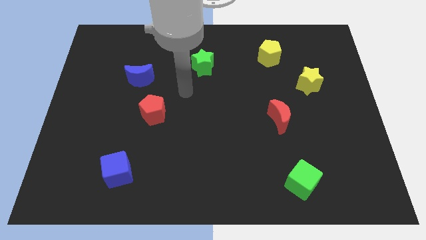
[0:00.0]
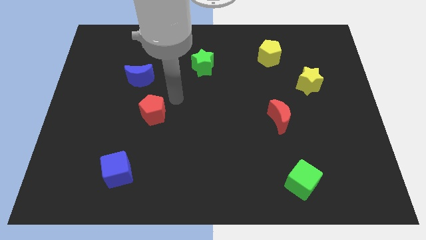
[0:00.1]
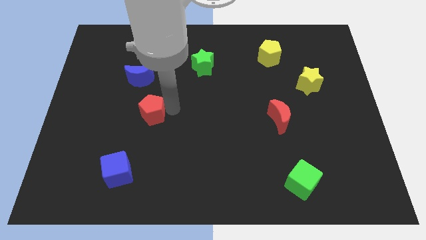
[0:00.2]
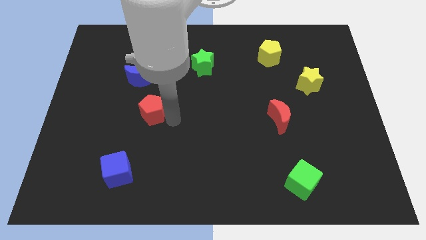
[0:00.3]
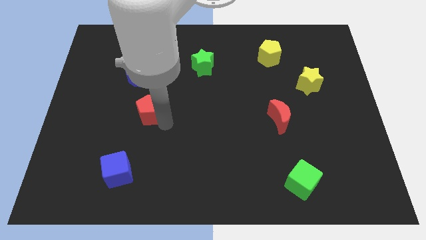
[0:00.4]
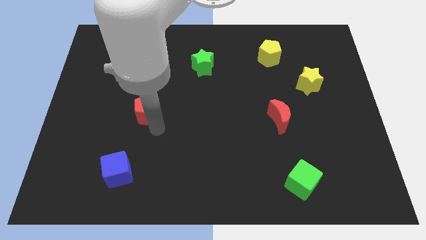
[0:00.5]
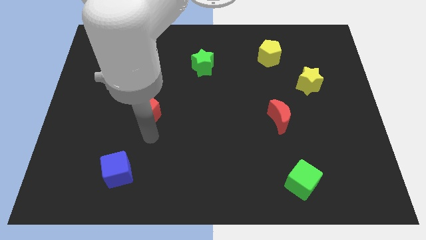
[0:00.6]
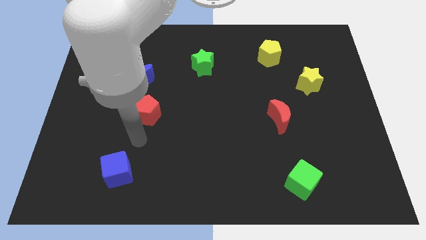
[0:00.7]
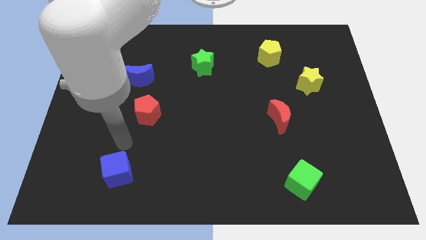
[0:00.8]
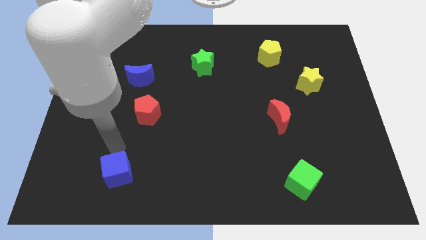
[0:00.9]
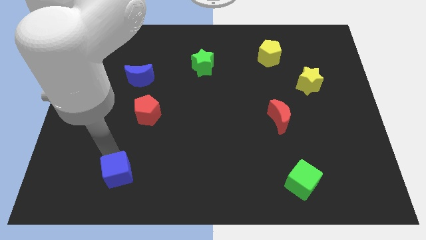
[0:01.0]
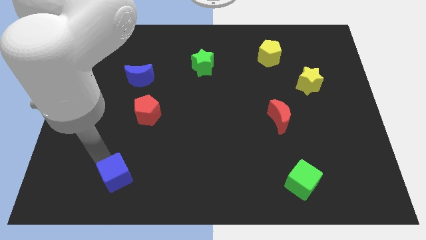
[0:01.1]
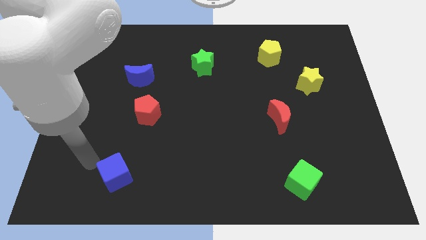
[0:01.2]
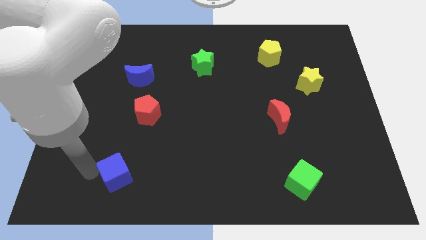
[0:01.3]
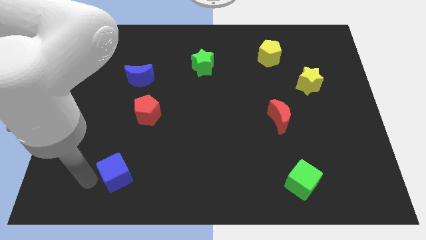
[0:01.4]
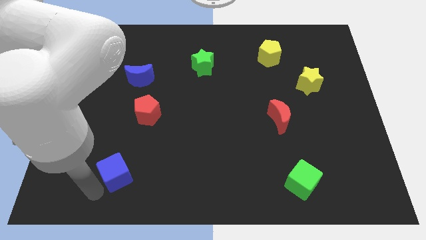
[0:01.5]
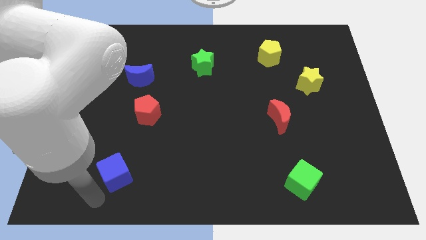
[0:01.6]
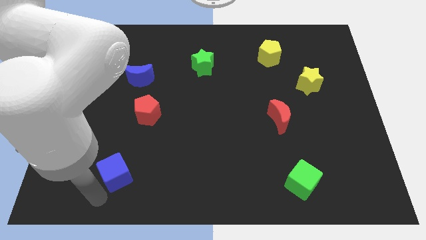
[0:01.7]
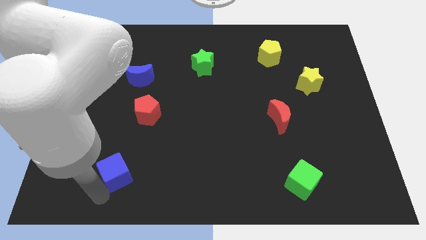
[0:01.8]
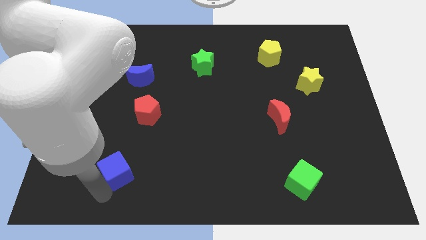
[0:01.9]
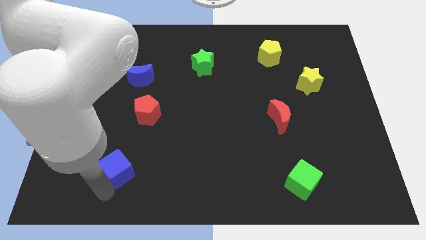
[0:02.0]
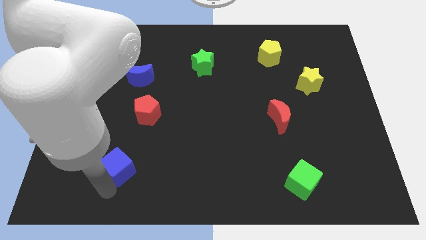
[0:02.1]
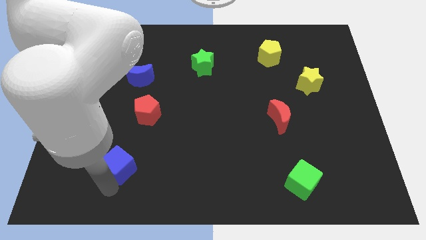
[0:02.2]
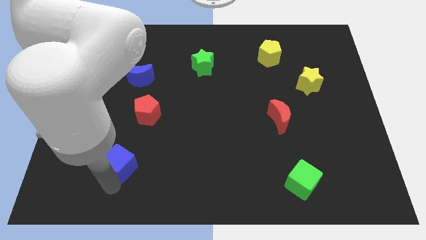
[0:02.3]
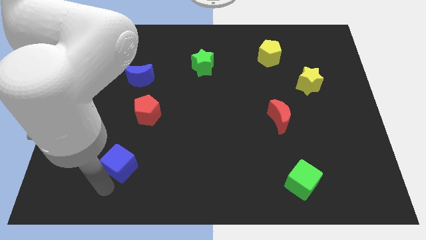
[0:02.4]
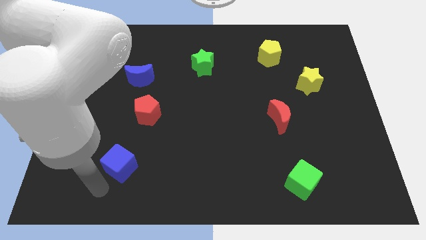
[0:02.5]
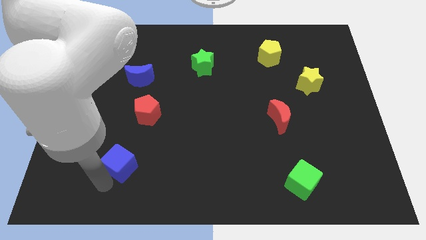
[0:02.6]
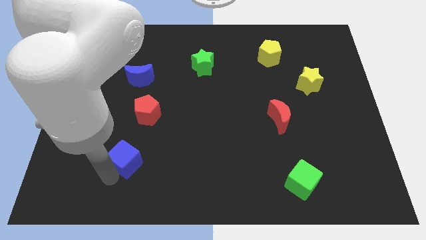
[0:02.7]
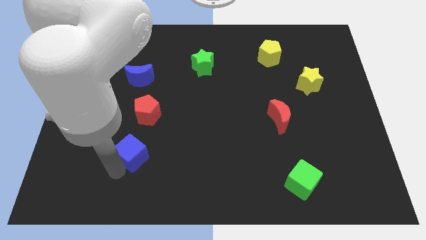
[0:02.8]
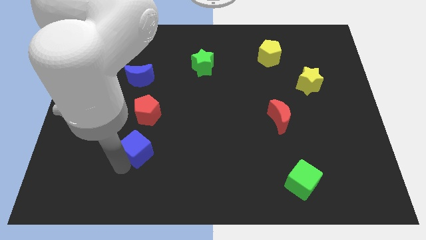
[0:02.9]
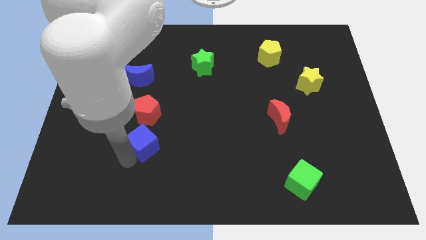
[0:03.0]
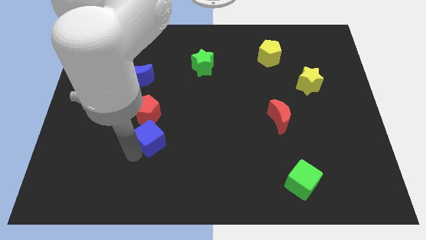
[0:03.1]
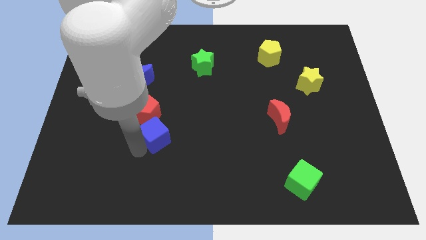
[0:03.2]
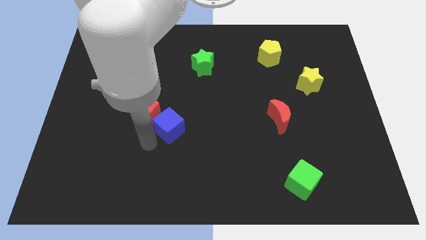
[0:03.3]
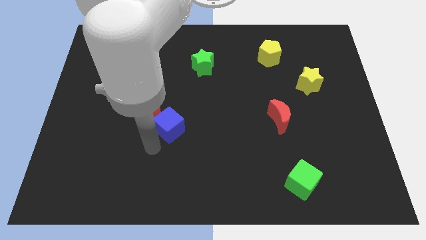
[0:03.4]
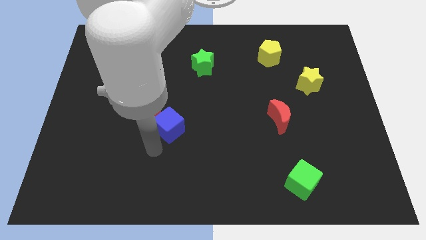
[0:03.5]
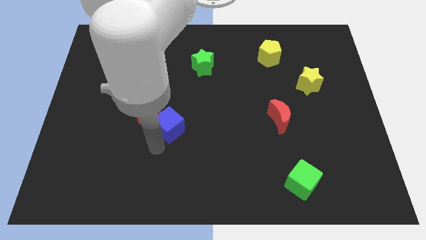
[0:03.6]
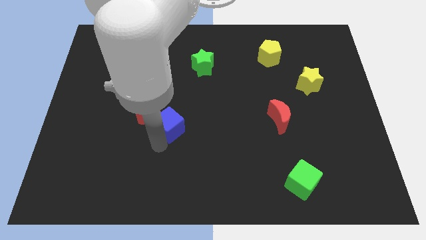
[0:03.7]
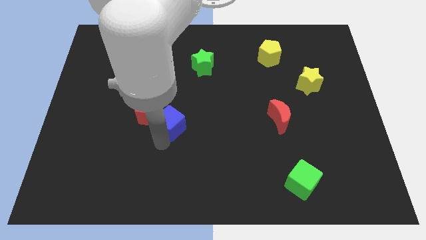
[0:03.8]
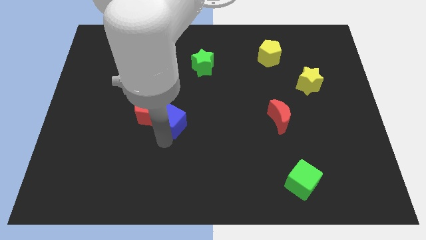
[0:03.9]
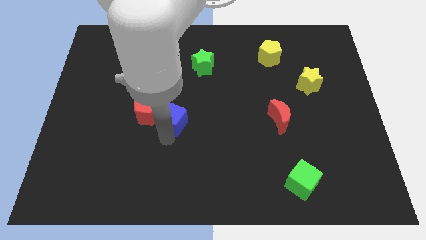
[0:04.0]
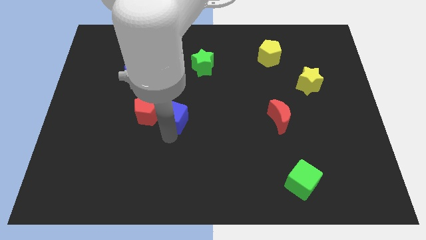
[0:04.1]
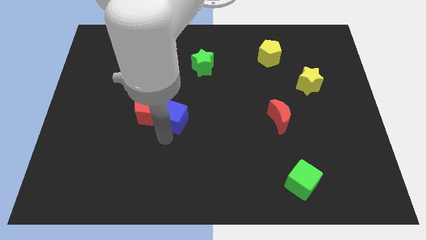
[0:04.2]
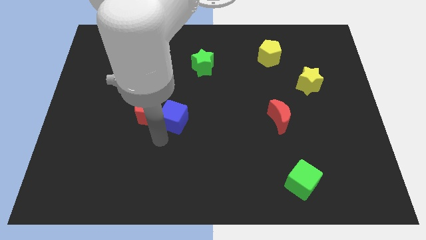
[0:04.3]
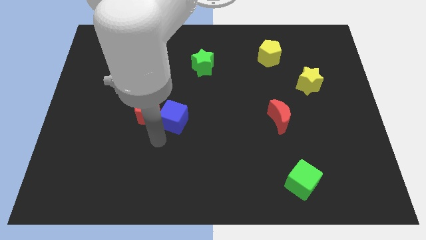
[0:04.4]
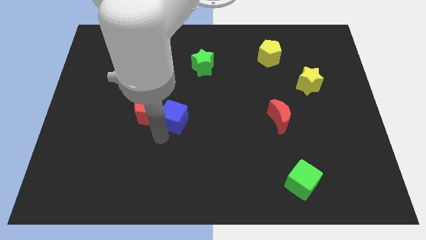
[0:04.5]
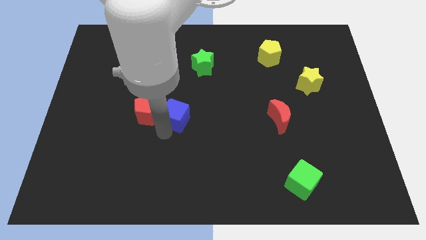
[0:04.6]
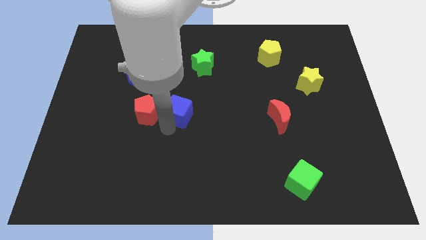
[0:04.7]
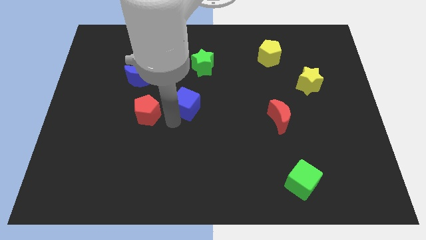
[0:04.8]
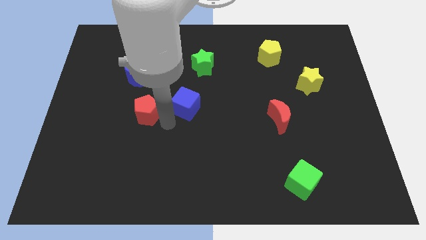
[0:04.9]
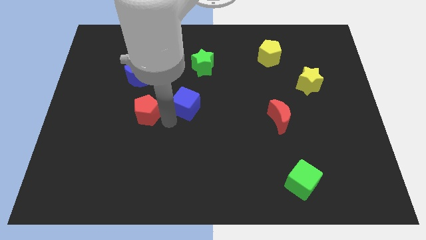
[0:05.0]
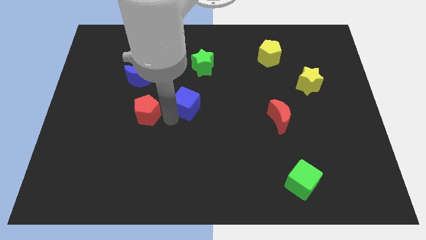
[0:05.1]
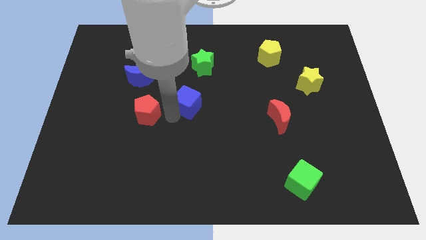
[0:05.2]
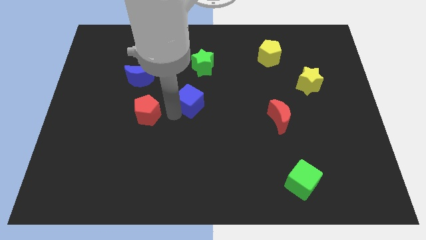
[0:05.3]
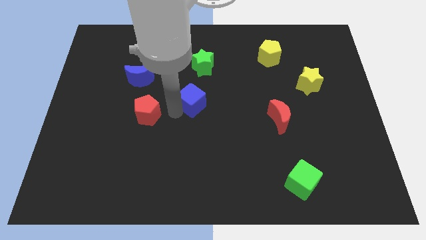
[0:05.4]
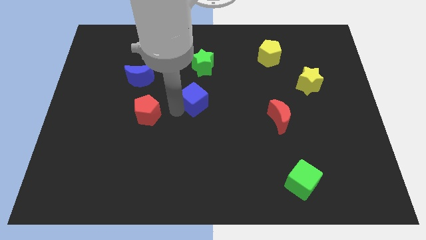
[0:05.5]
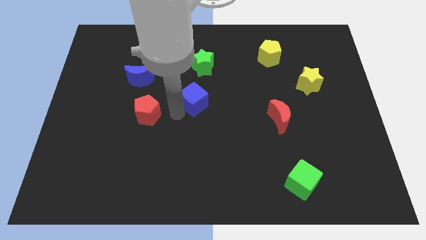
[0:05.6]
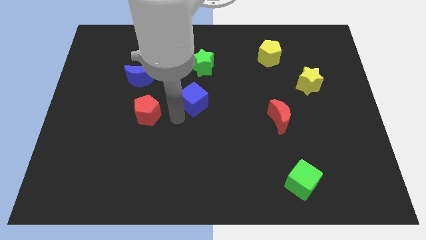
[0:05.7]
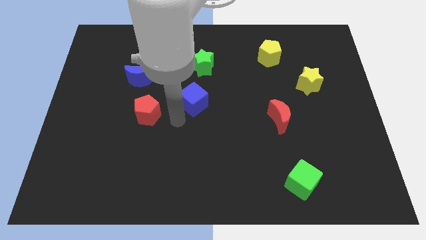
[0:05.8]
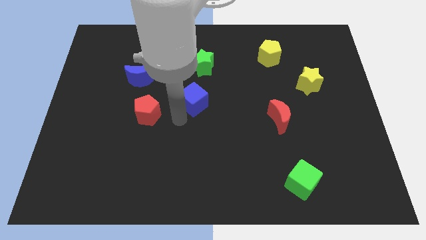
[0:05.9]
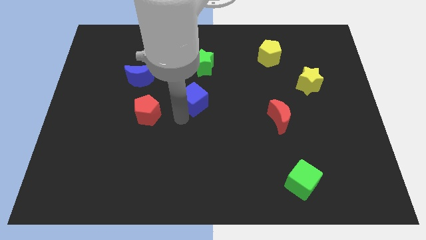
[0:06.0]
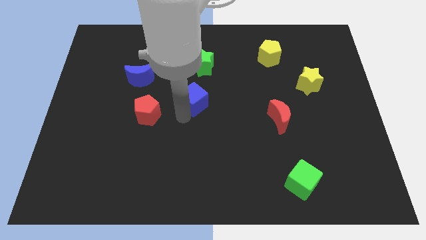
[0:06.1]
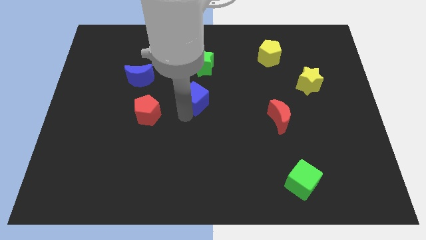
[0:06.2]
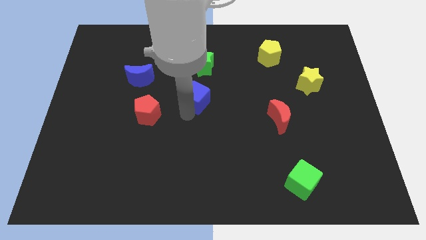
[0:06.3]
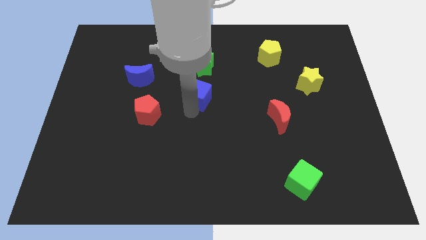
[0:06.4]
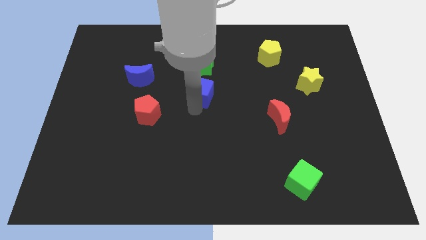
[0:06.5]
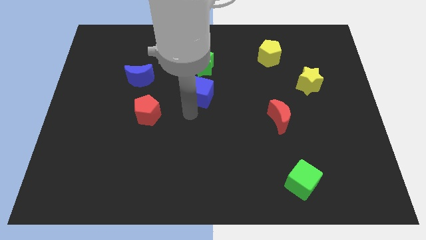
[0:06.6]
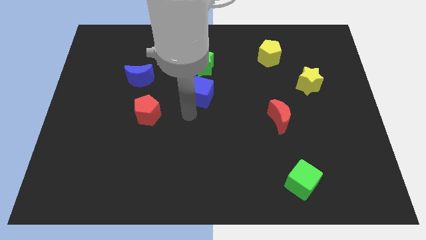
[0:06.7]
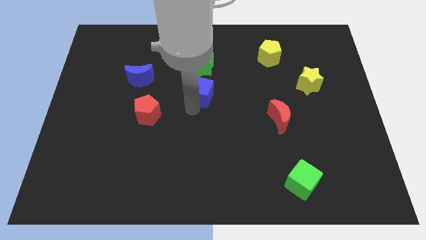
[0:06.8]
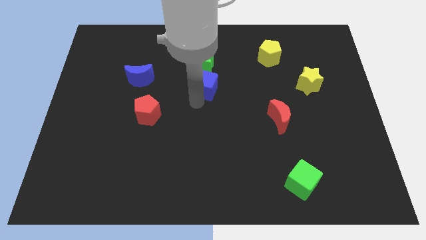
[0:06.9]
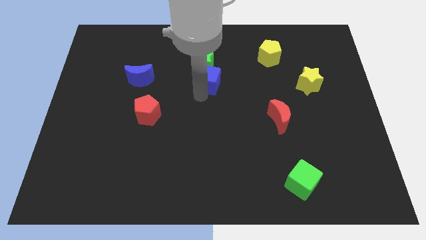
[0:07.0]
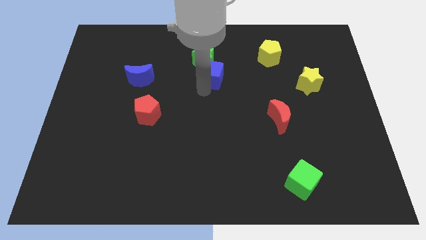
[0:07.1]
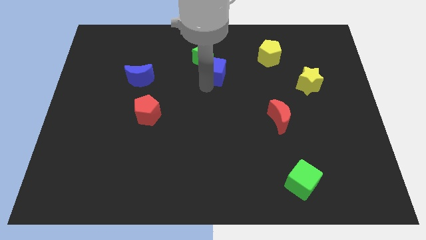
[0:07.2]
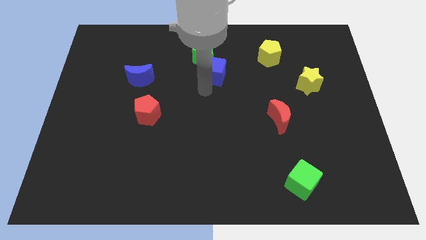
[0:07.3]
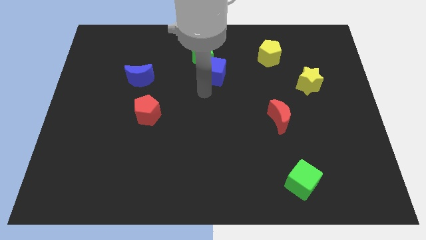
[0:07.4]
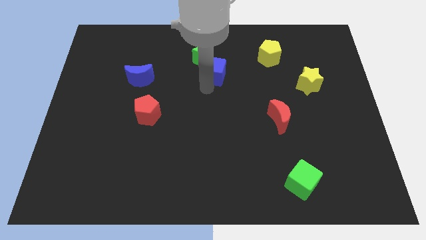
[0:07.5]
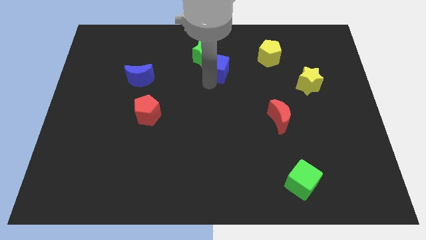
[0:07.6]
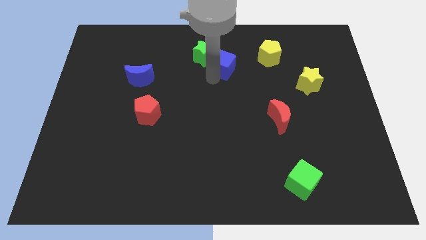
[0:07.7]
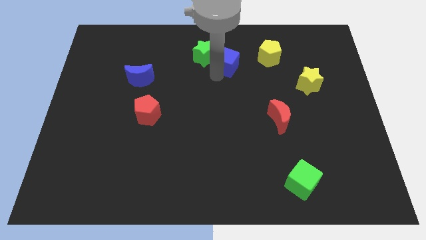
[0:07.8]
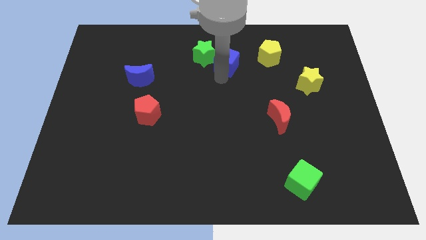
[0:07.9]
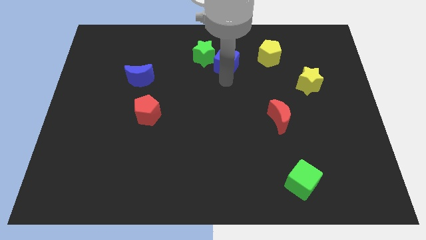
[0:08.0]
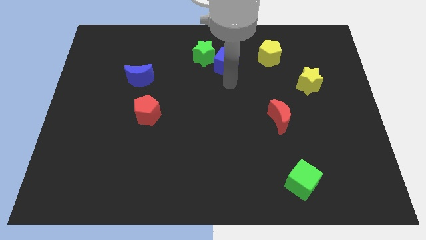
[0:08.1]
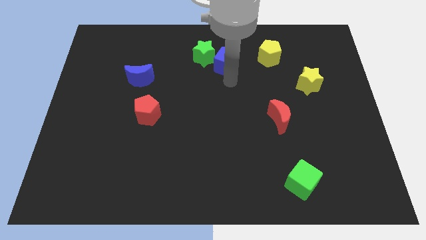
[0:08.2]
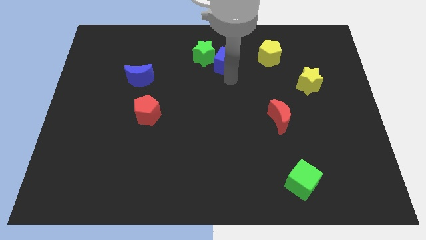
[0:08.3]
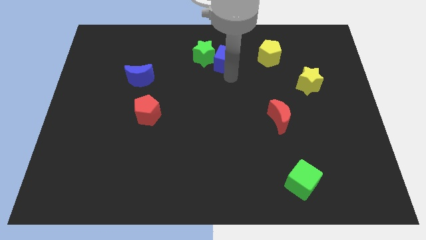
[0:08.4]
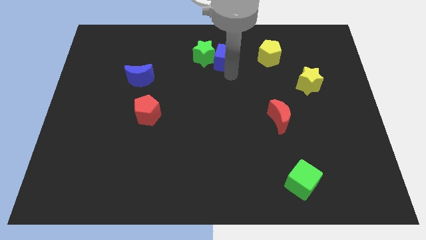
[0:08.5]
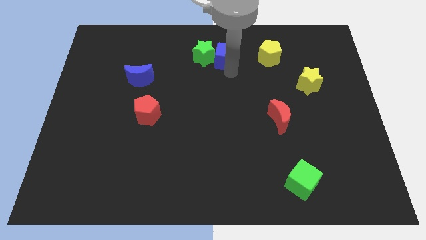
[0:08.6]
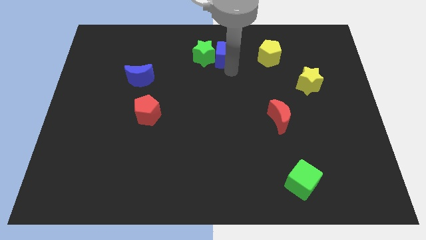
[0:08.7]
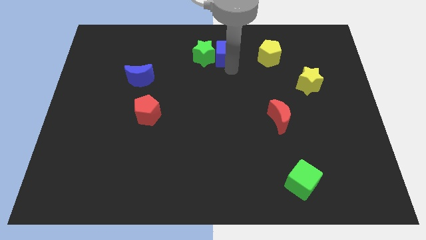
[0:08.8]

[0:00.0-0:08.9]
put the blue cube to the top
